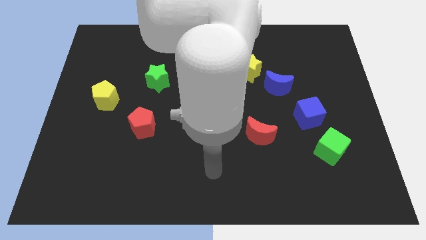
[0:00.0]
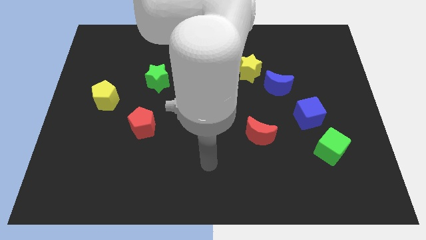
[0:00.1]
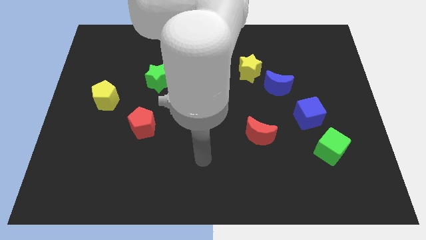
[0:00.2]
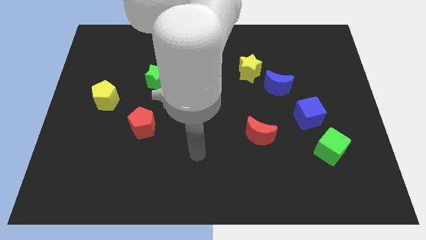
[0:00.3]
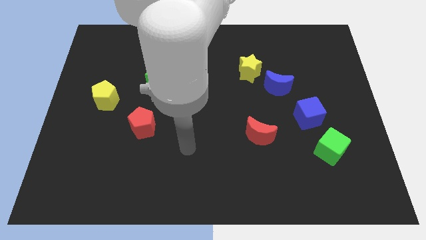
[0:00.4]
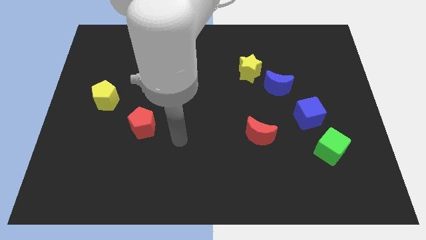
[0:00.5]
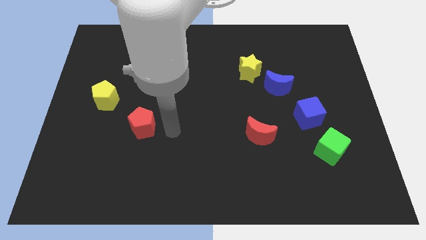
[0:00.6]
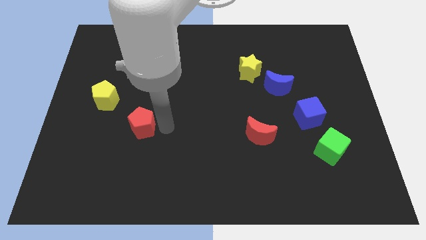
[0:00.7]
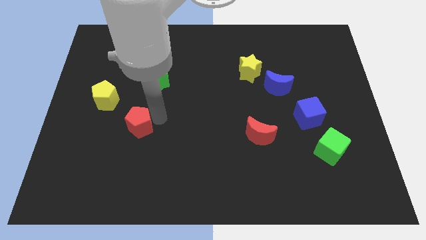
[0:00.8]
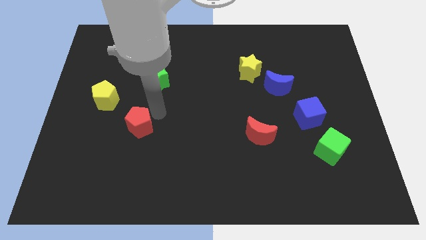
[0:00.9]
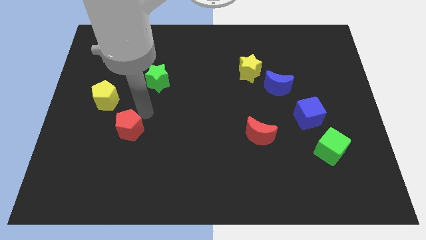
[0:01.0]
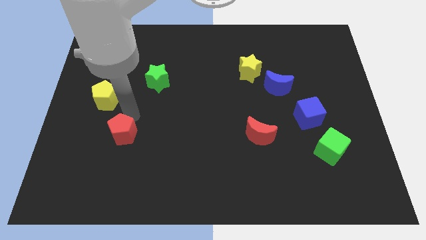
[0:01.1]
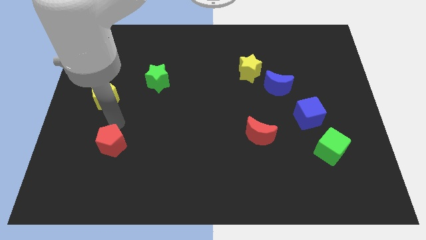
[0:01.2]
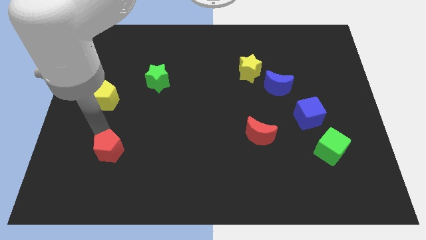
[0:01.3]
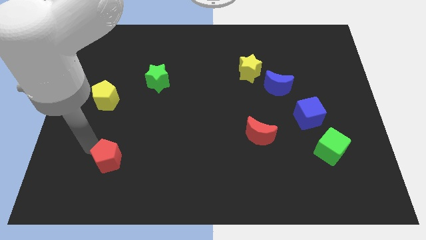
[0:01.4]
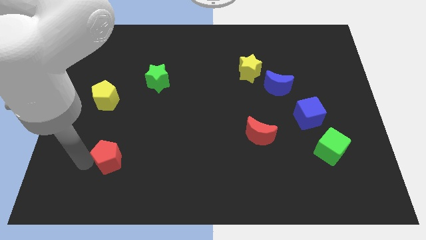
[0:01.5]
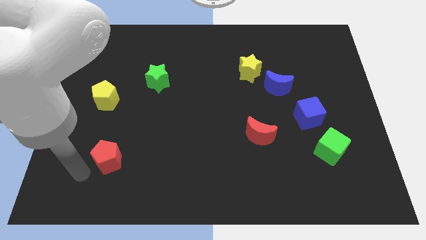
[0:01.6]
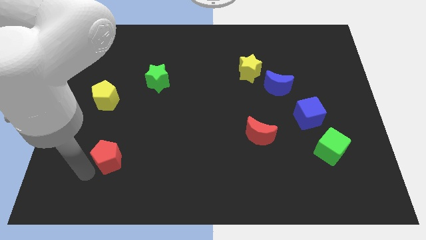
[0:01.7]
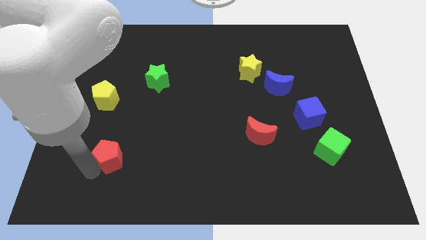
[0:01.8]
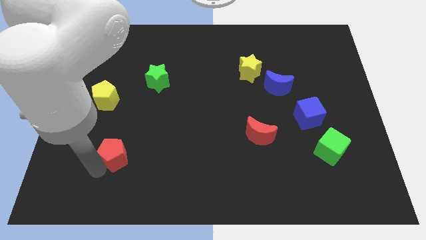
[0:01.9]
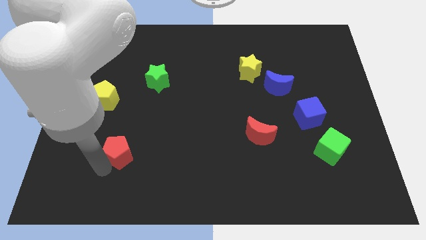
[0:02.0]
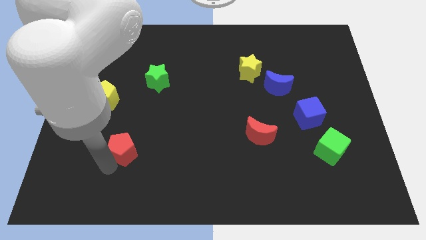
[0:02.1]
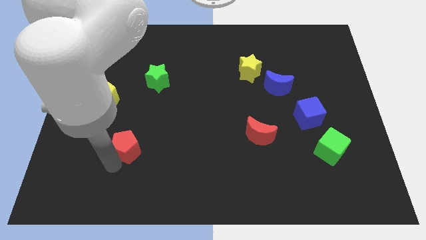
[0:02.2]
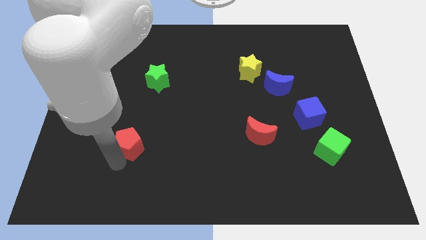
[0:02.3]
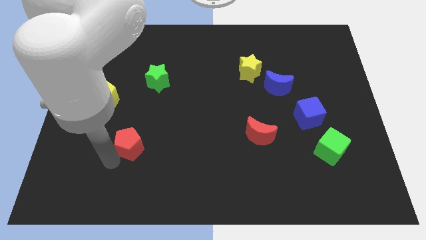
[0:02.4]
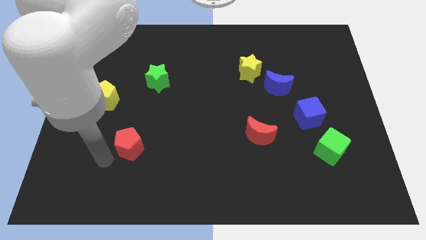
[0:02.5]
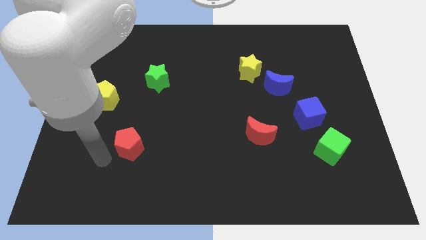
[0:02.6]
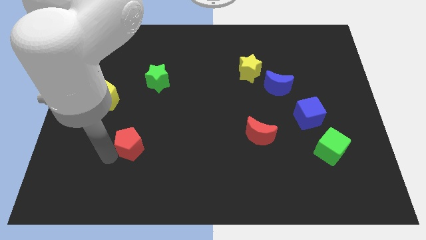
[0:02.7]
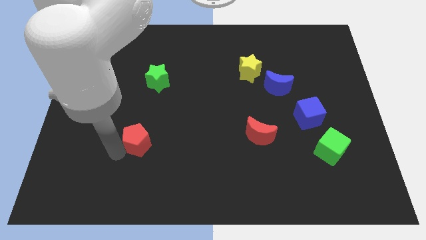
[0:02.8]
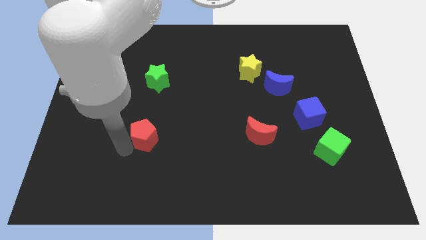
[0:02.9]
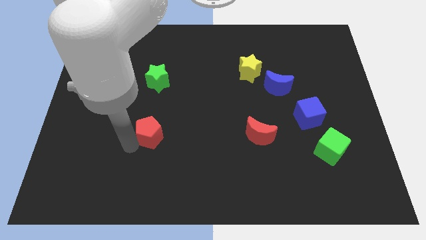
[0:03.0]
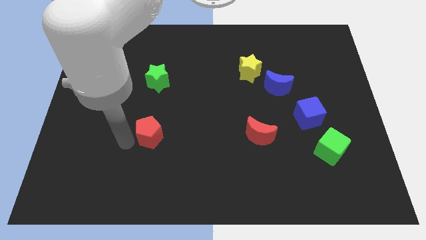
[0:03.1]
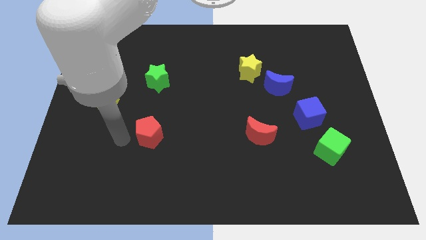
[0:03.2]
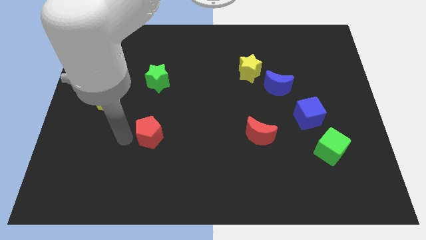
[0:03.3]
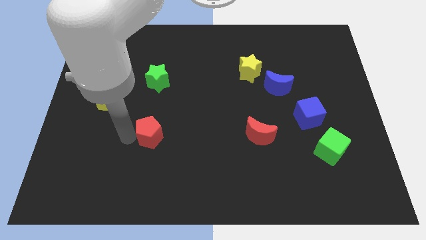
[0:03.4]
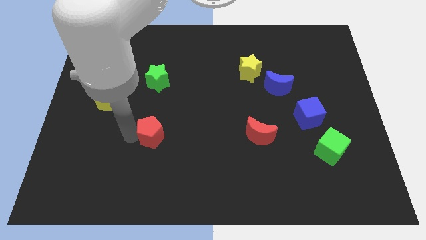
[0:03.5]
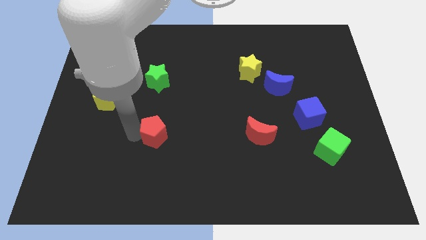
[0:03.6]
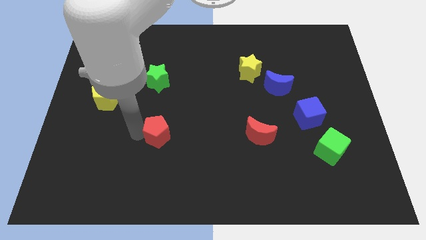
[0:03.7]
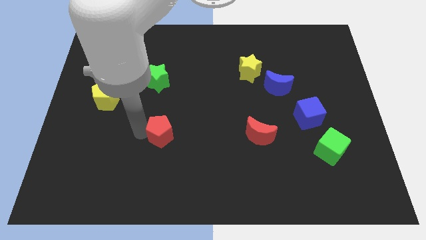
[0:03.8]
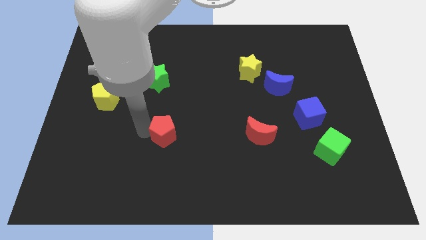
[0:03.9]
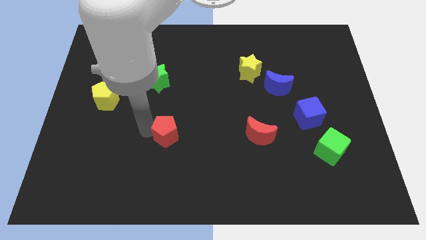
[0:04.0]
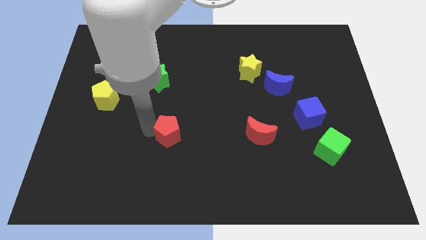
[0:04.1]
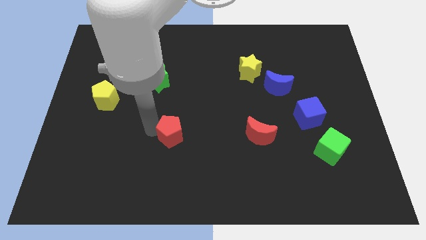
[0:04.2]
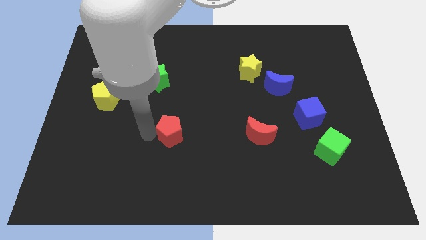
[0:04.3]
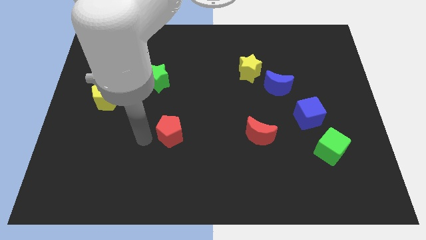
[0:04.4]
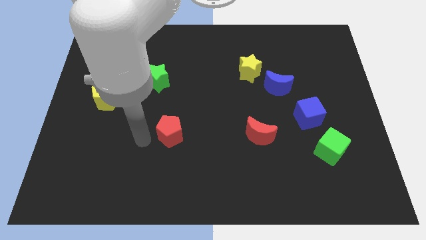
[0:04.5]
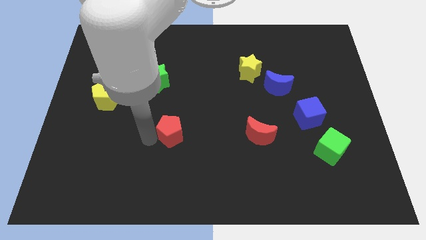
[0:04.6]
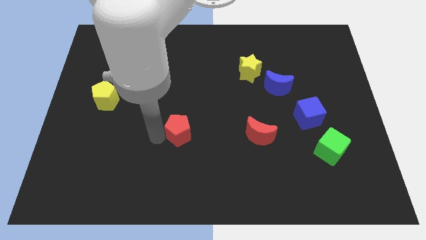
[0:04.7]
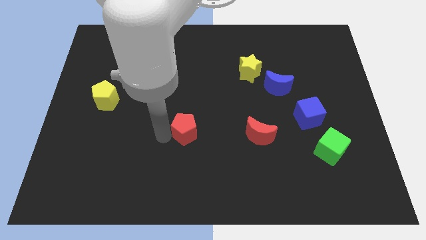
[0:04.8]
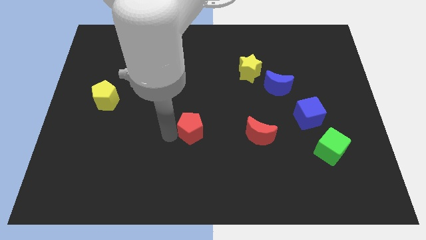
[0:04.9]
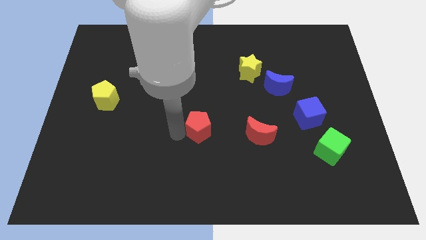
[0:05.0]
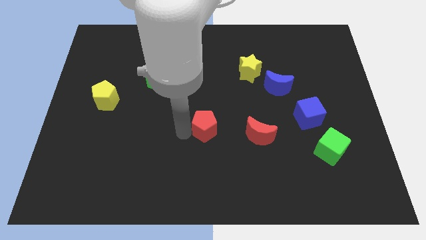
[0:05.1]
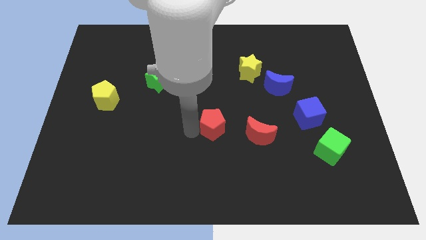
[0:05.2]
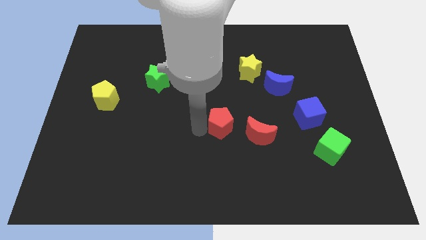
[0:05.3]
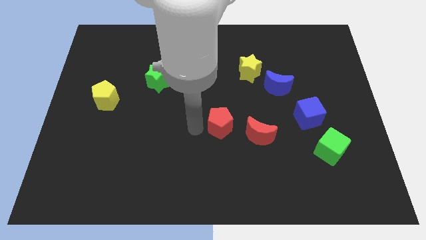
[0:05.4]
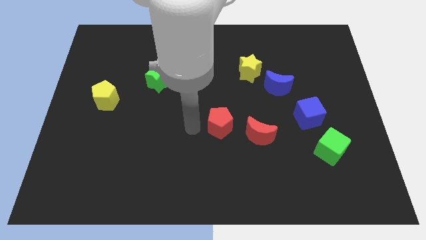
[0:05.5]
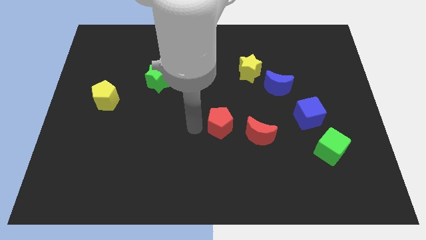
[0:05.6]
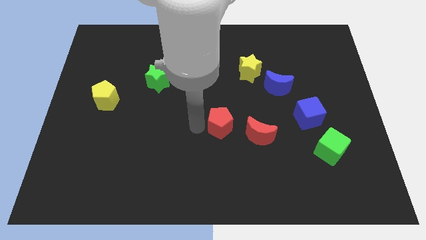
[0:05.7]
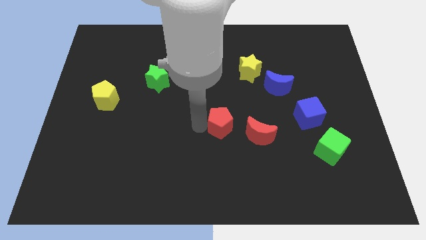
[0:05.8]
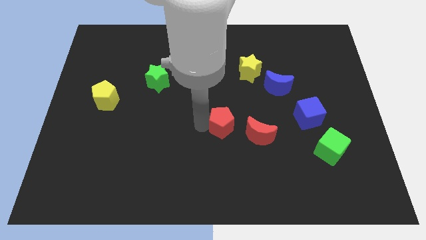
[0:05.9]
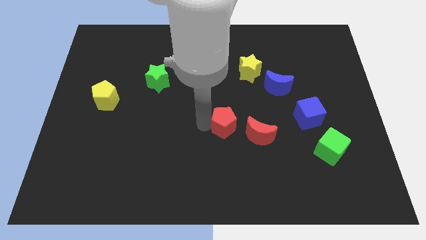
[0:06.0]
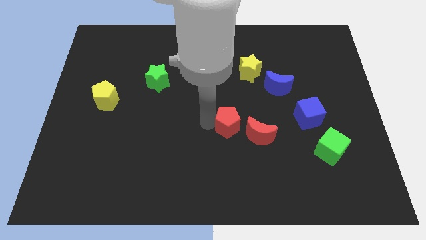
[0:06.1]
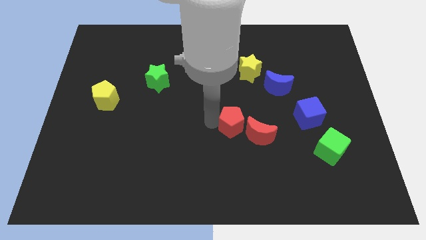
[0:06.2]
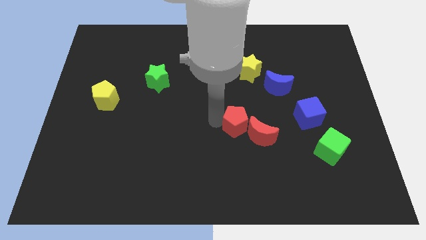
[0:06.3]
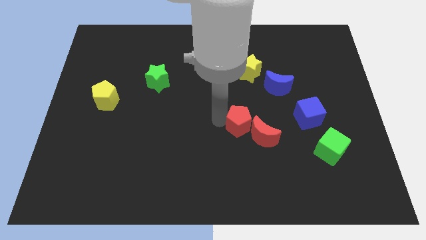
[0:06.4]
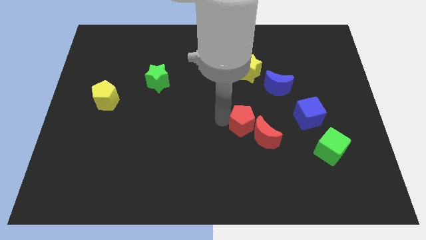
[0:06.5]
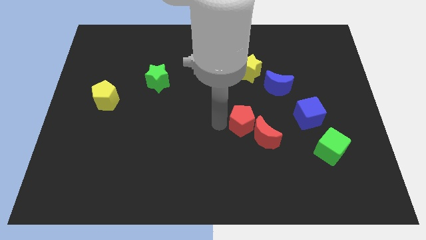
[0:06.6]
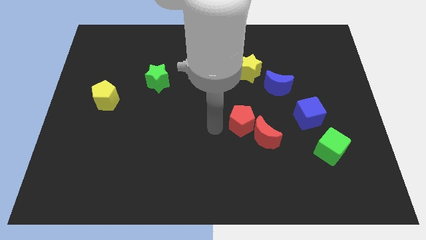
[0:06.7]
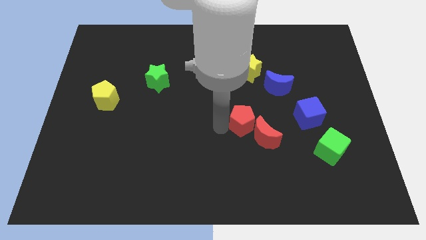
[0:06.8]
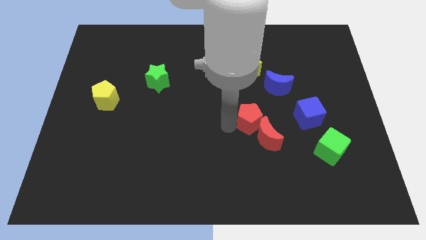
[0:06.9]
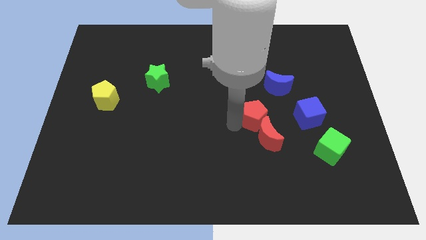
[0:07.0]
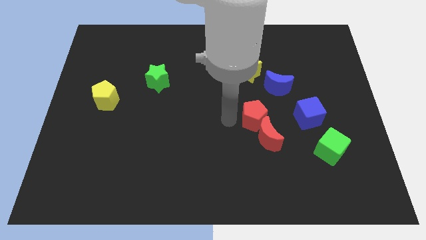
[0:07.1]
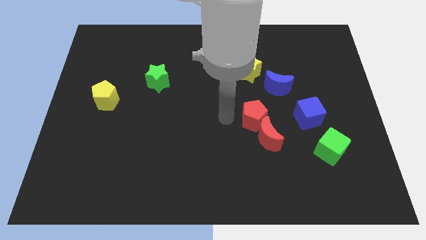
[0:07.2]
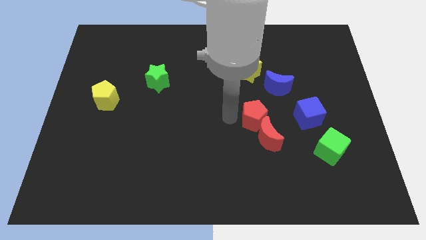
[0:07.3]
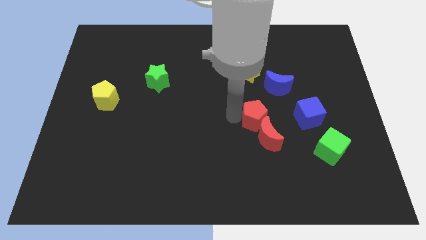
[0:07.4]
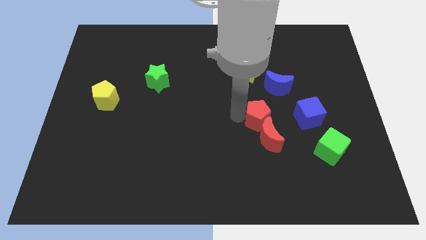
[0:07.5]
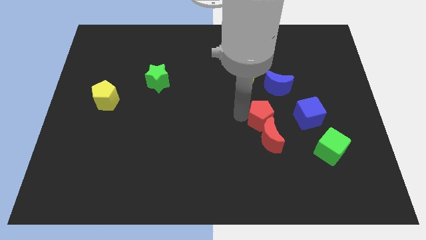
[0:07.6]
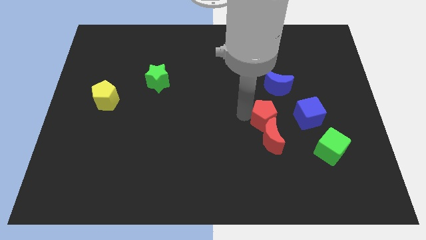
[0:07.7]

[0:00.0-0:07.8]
push the red pentagon to the top right of the red moon
